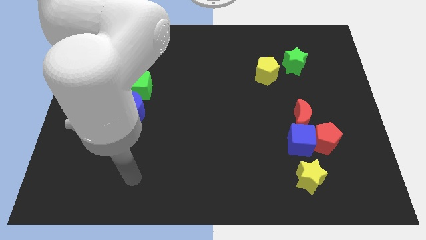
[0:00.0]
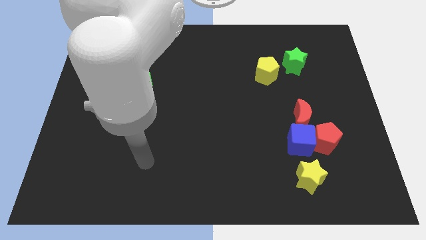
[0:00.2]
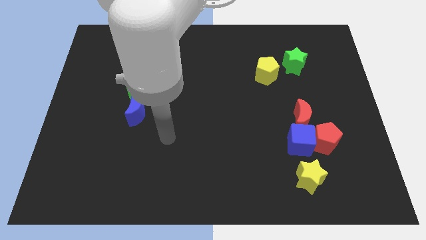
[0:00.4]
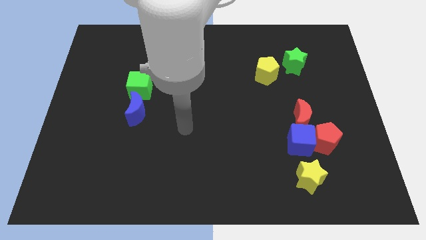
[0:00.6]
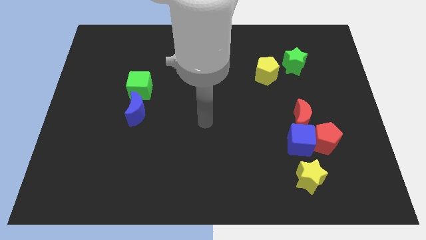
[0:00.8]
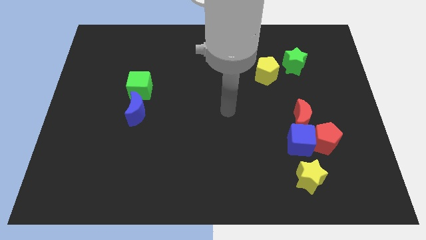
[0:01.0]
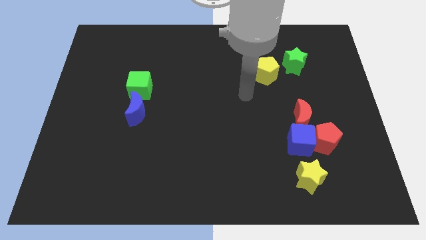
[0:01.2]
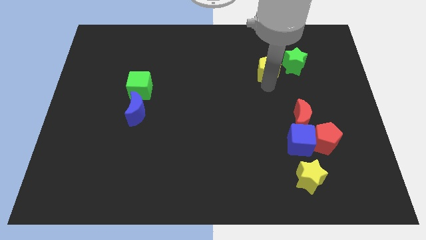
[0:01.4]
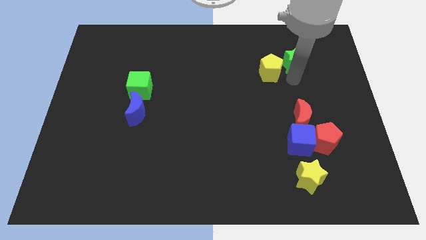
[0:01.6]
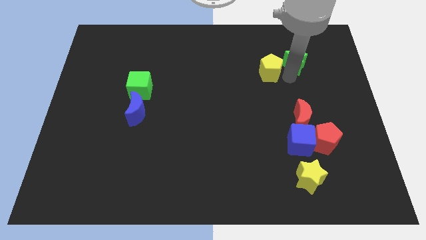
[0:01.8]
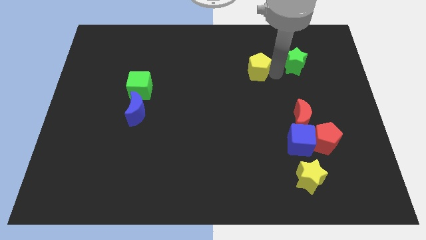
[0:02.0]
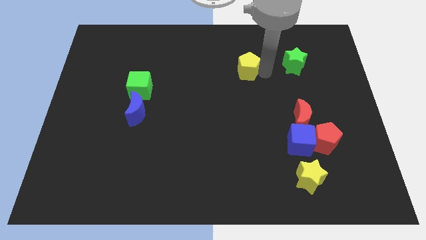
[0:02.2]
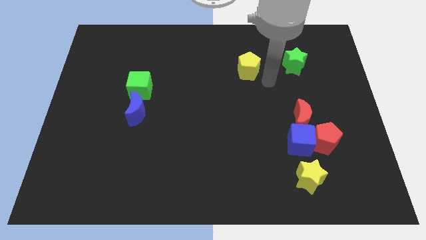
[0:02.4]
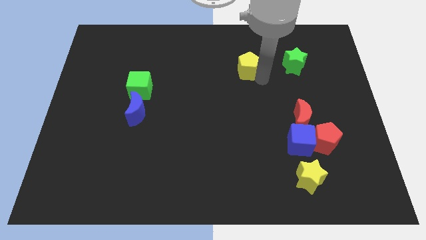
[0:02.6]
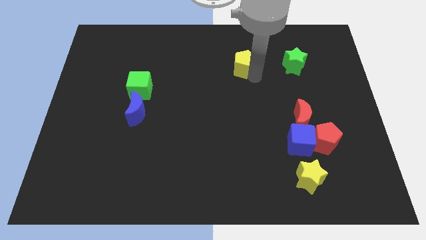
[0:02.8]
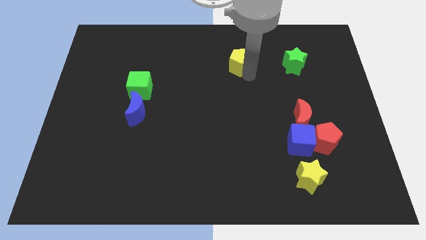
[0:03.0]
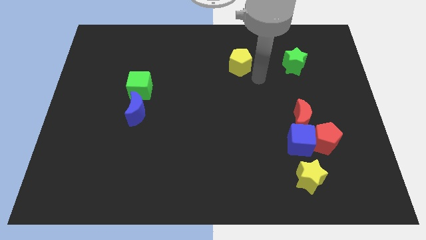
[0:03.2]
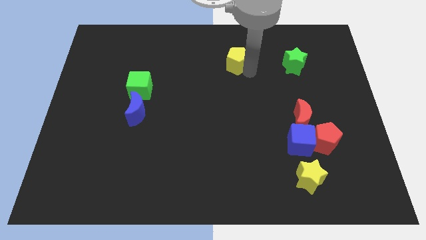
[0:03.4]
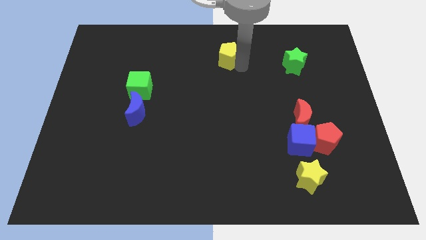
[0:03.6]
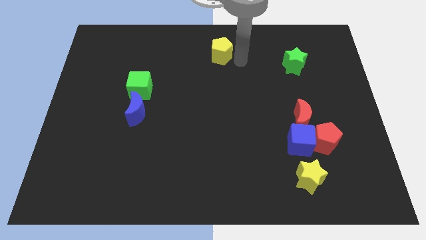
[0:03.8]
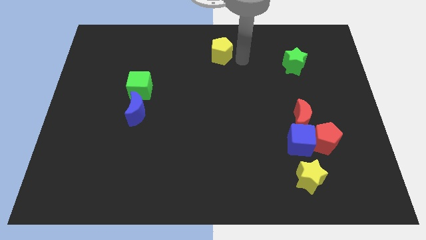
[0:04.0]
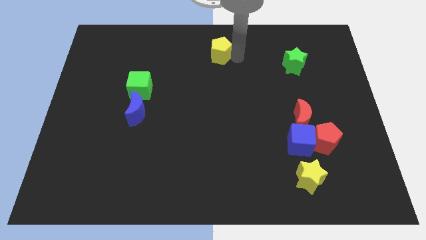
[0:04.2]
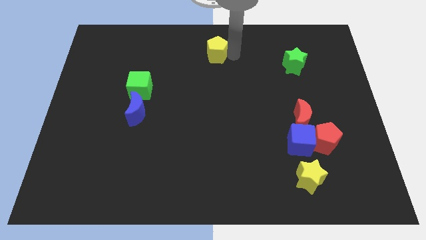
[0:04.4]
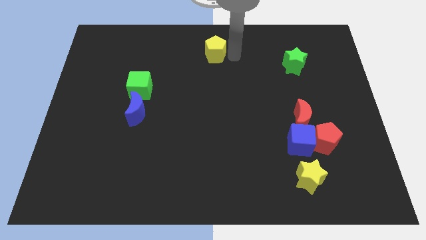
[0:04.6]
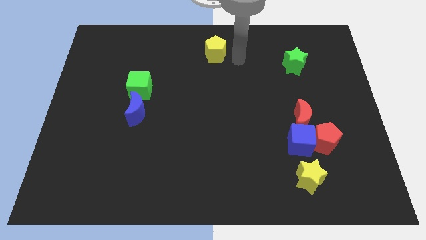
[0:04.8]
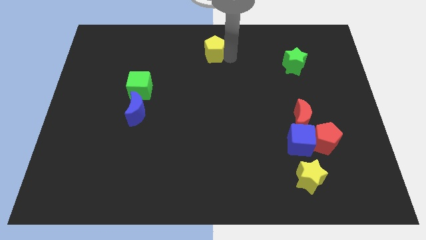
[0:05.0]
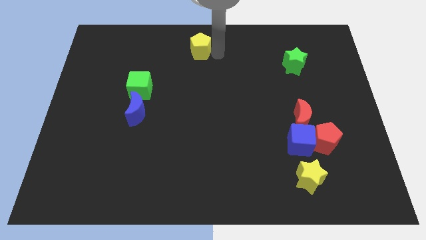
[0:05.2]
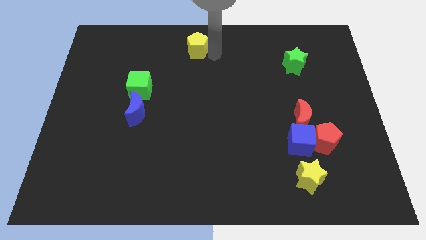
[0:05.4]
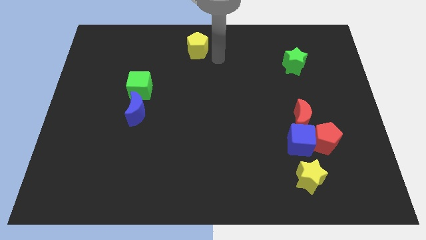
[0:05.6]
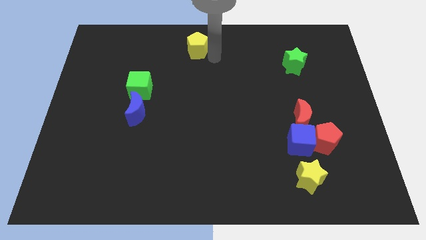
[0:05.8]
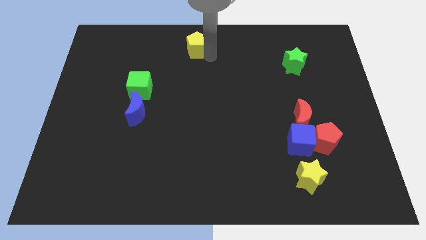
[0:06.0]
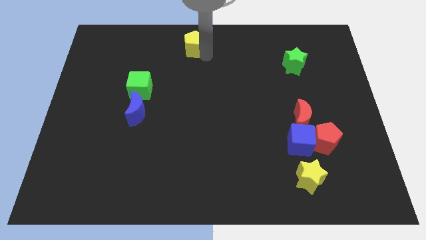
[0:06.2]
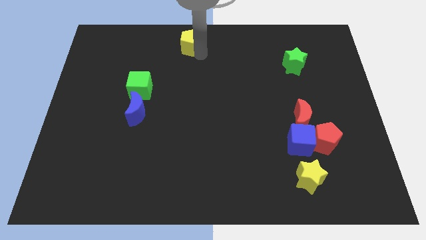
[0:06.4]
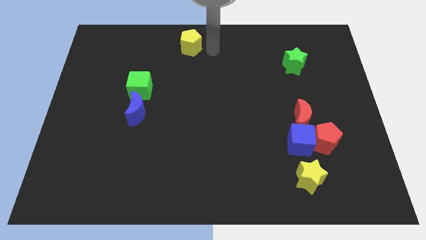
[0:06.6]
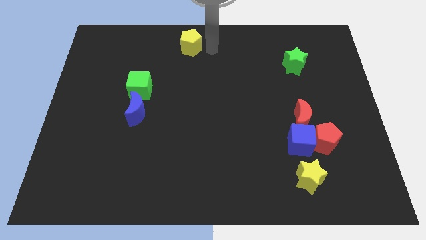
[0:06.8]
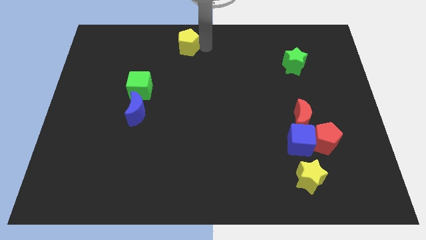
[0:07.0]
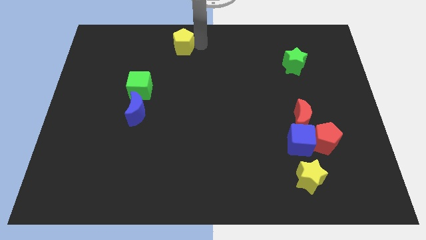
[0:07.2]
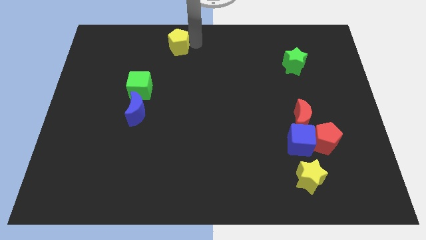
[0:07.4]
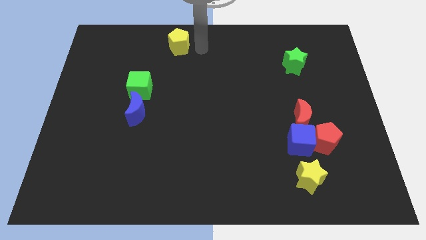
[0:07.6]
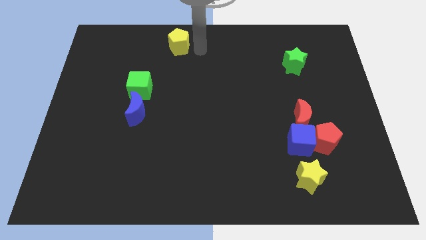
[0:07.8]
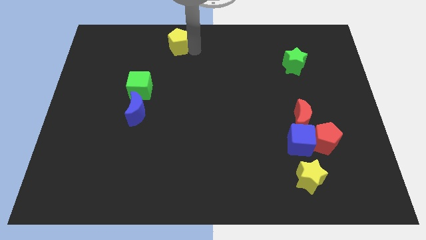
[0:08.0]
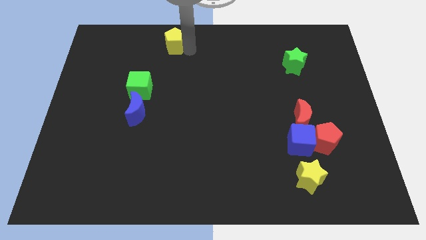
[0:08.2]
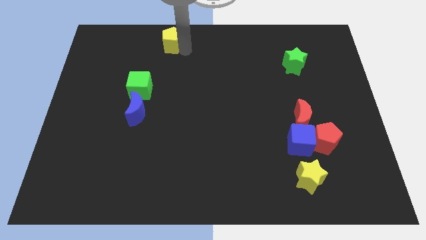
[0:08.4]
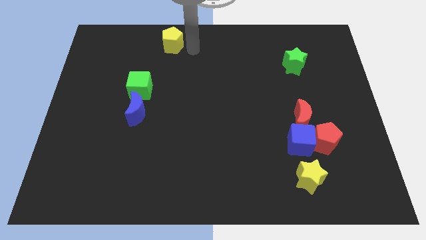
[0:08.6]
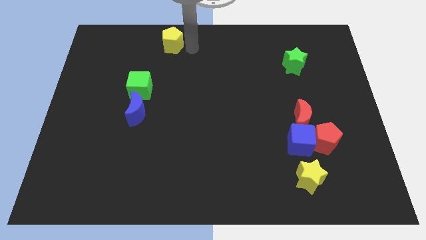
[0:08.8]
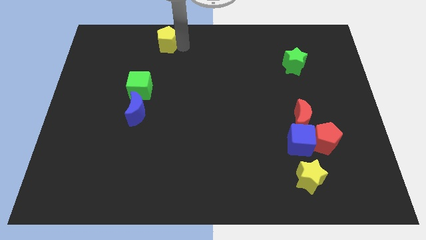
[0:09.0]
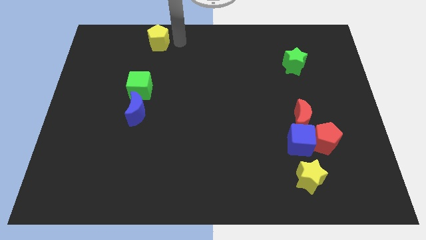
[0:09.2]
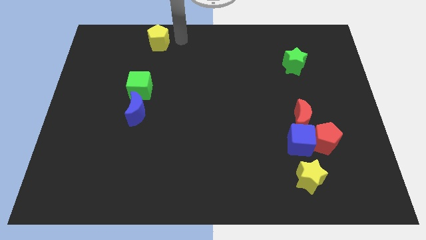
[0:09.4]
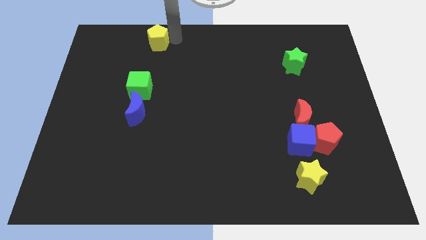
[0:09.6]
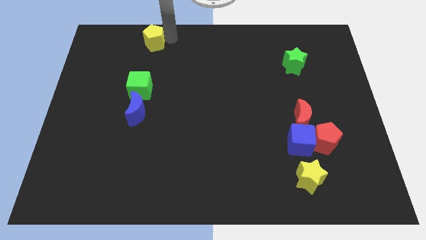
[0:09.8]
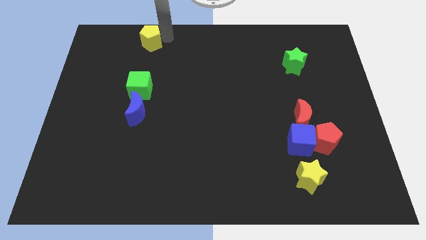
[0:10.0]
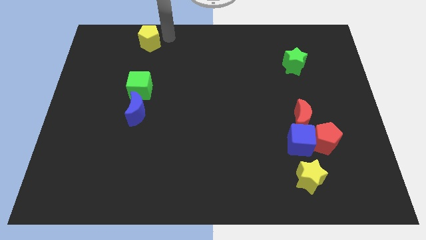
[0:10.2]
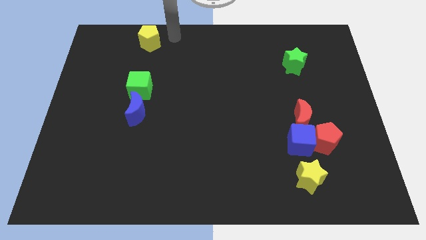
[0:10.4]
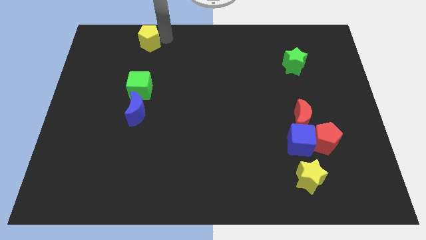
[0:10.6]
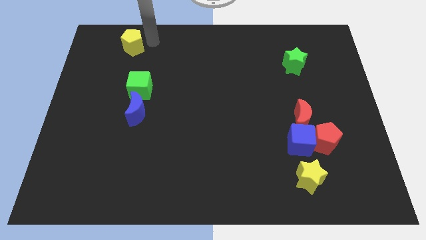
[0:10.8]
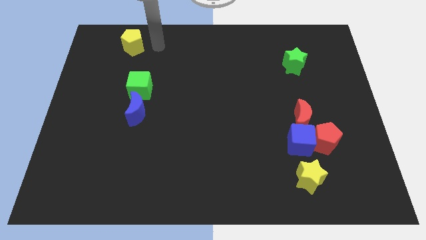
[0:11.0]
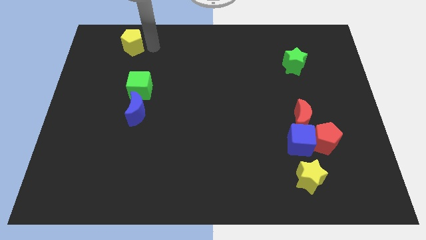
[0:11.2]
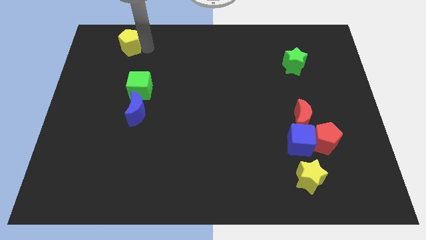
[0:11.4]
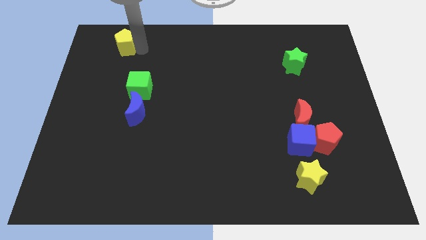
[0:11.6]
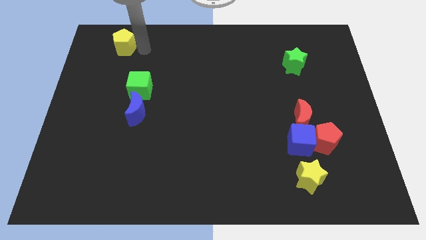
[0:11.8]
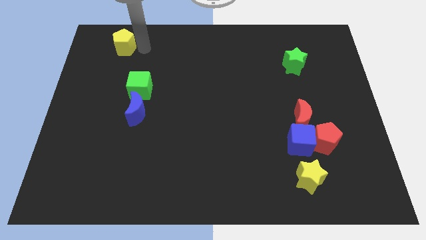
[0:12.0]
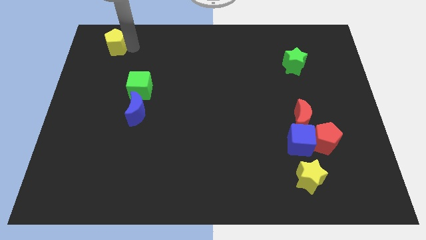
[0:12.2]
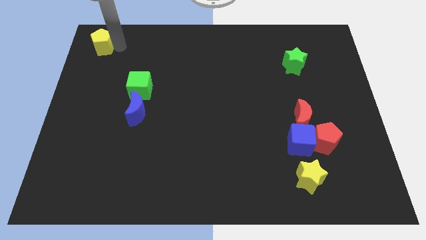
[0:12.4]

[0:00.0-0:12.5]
slide the yellow pentagon to the top left corner
